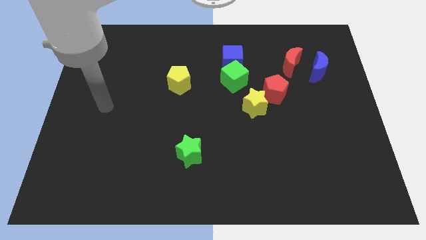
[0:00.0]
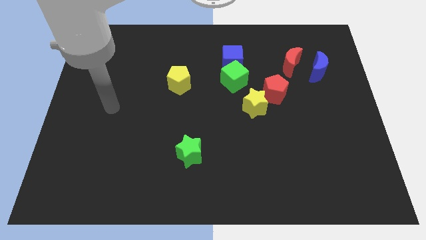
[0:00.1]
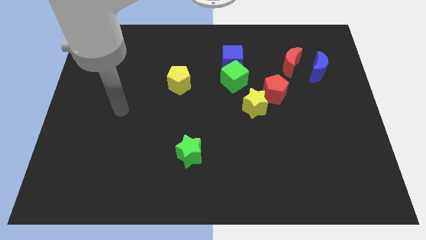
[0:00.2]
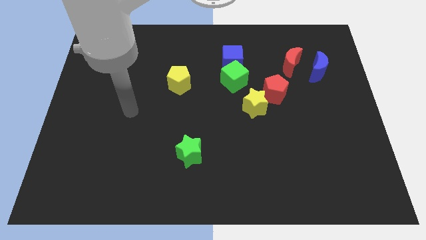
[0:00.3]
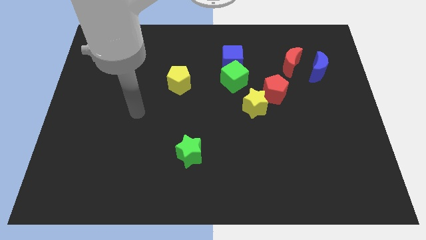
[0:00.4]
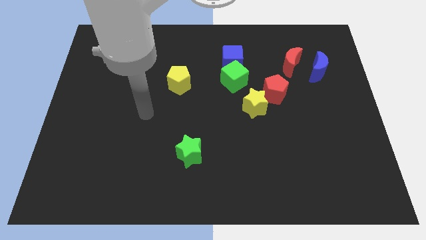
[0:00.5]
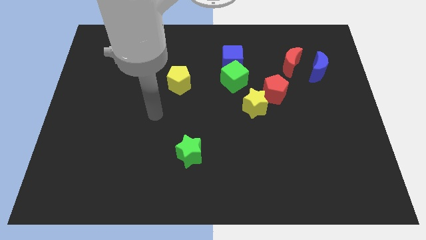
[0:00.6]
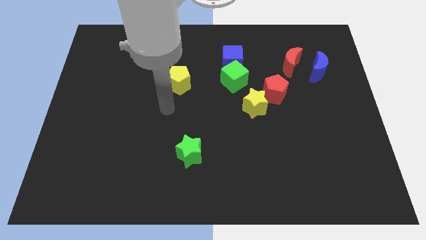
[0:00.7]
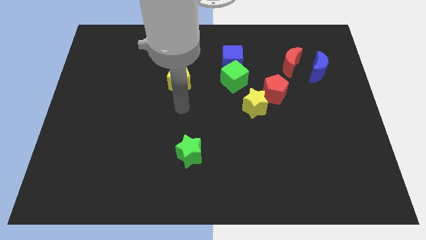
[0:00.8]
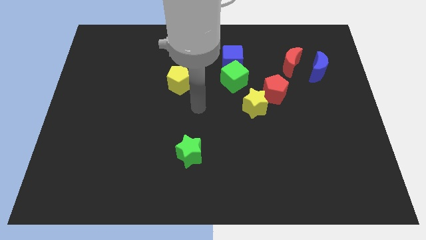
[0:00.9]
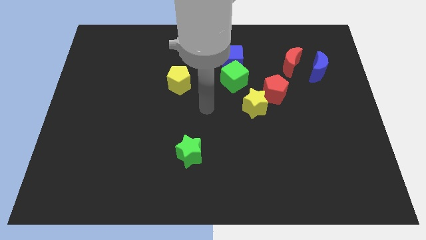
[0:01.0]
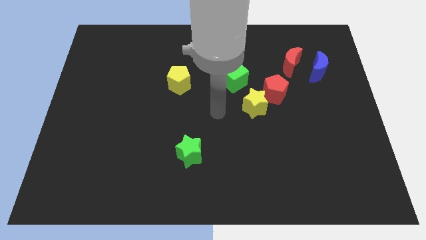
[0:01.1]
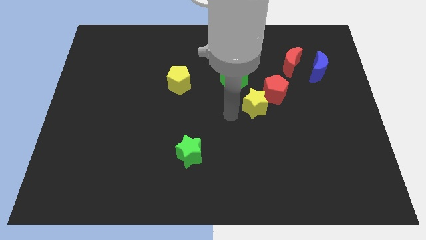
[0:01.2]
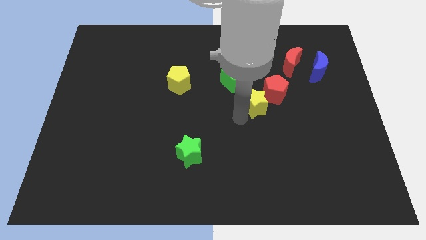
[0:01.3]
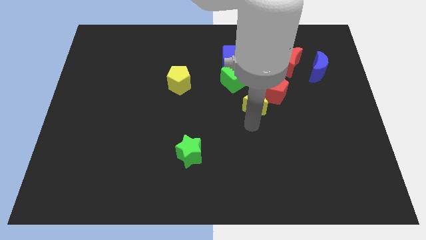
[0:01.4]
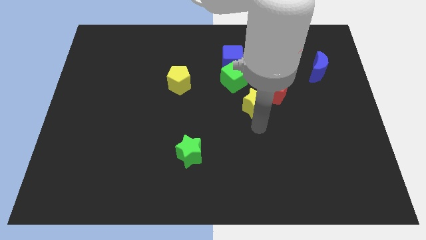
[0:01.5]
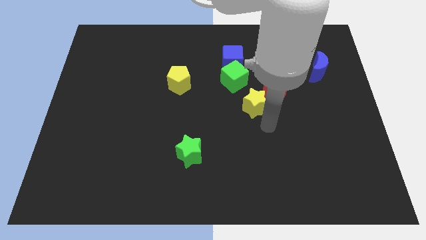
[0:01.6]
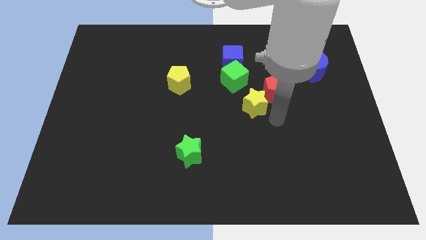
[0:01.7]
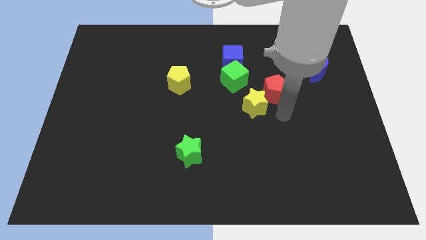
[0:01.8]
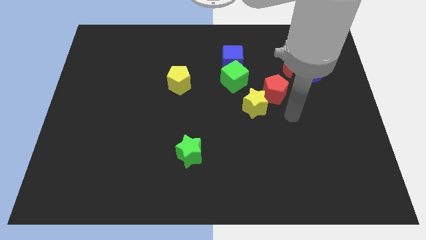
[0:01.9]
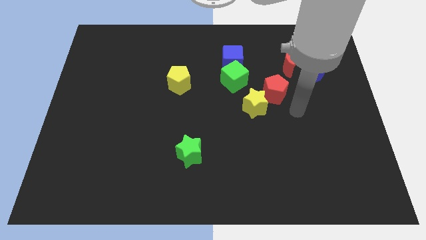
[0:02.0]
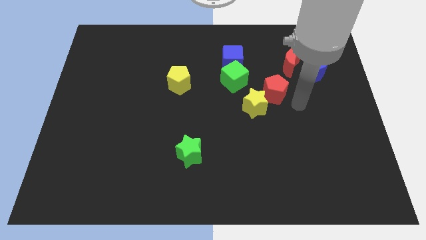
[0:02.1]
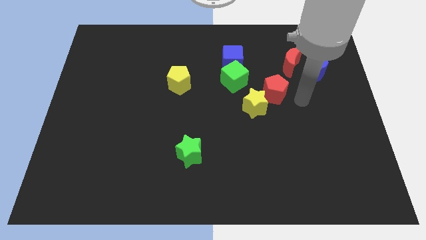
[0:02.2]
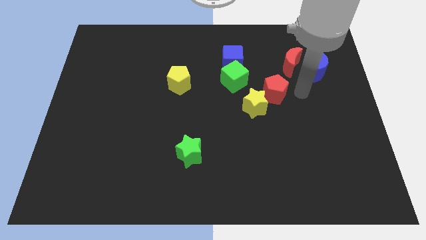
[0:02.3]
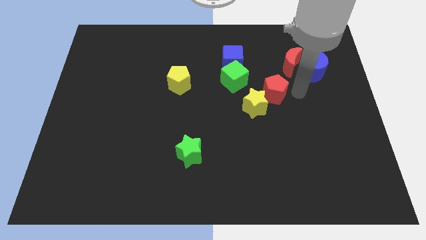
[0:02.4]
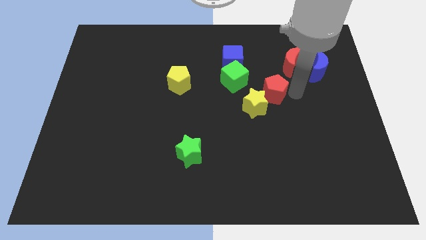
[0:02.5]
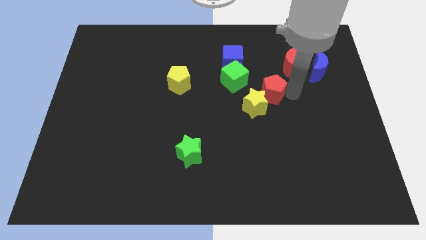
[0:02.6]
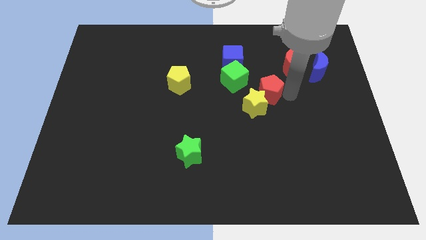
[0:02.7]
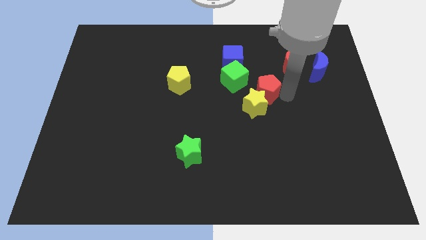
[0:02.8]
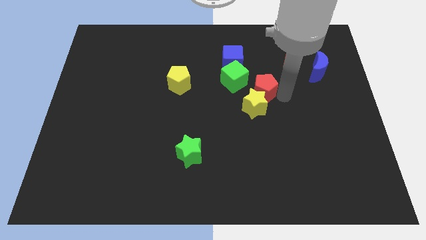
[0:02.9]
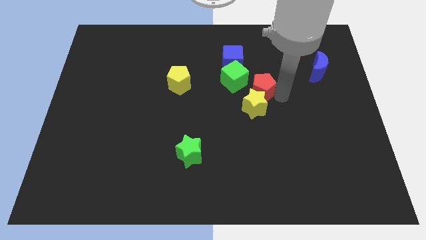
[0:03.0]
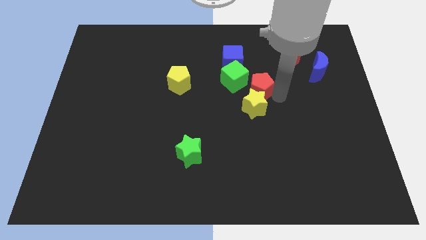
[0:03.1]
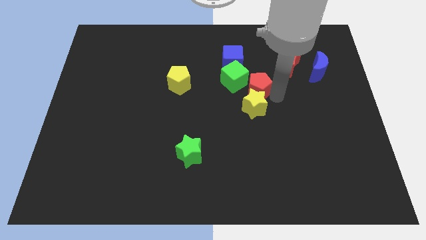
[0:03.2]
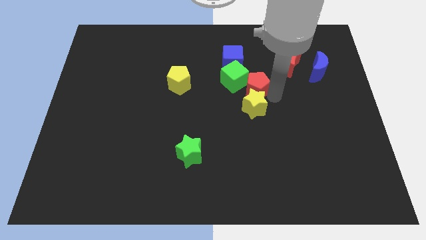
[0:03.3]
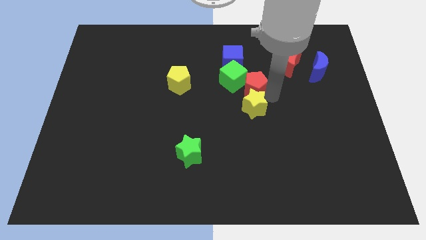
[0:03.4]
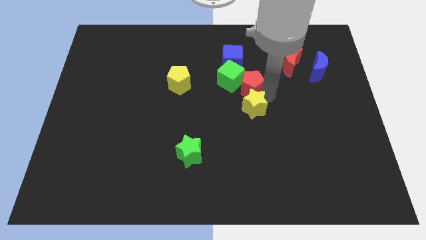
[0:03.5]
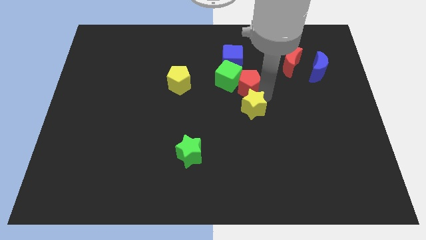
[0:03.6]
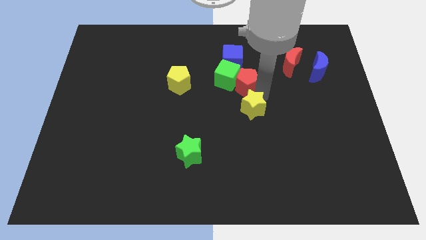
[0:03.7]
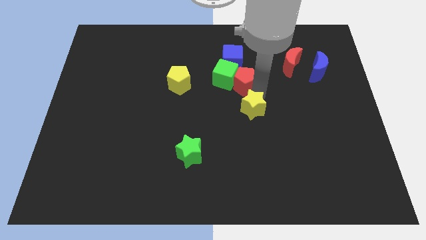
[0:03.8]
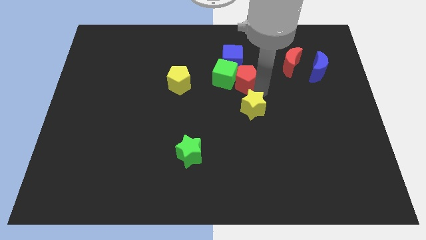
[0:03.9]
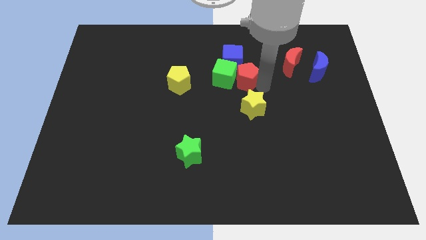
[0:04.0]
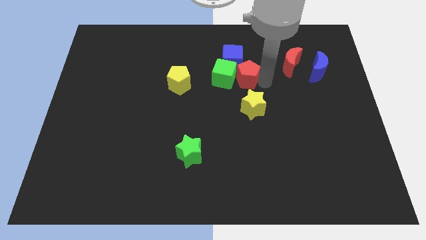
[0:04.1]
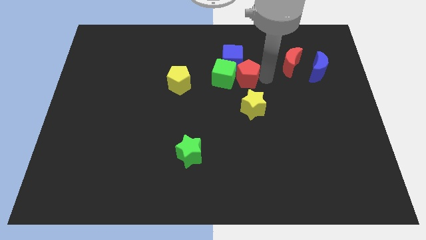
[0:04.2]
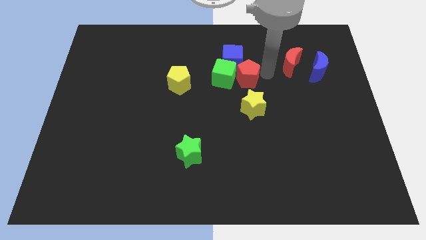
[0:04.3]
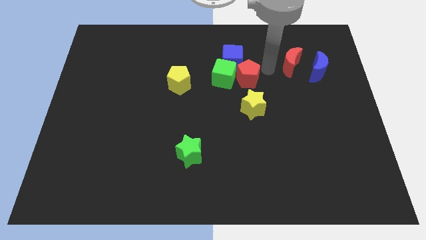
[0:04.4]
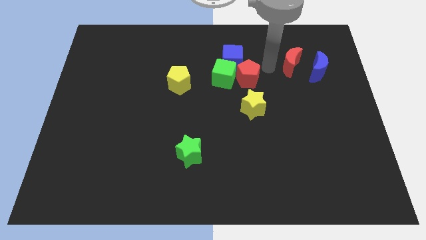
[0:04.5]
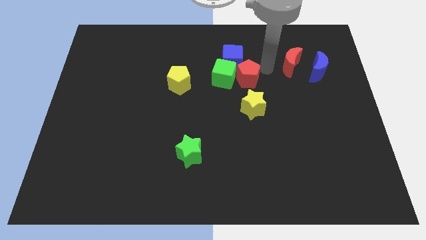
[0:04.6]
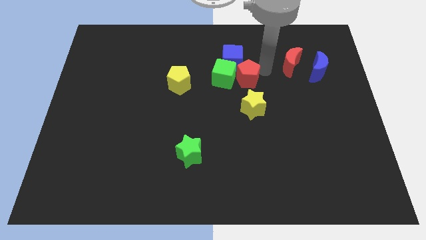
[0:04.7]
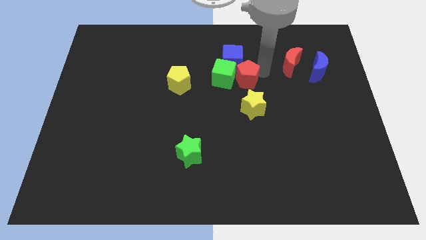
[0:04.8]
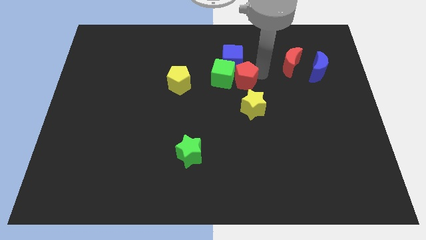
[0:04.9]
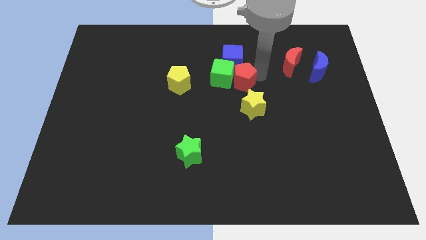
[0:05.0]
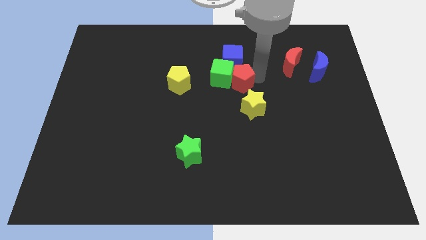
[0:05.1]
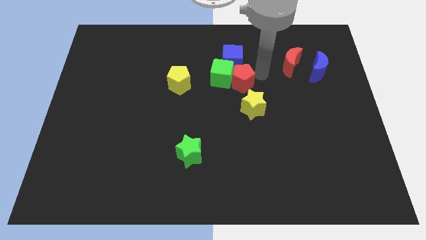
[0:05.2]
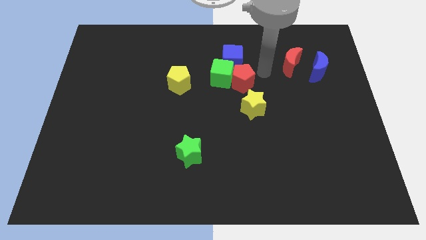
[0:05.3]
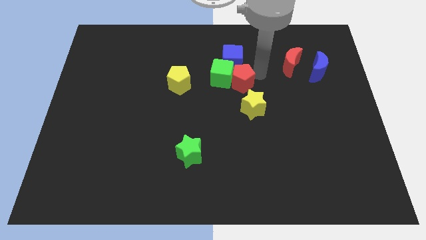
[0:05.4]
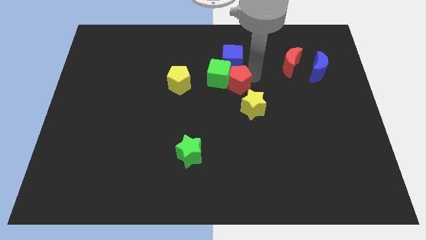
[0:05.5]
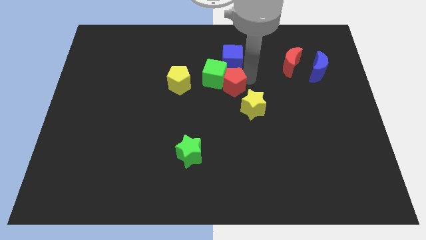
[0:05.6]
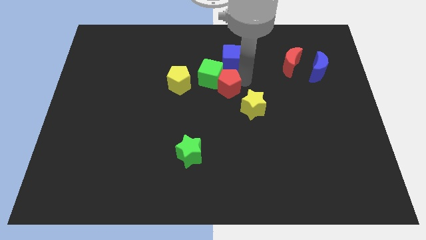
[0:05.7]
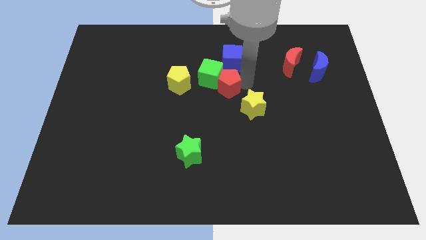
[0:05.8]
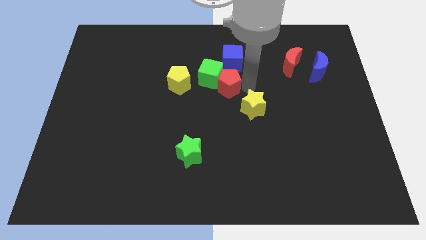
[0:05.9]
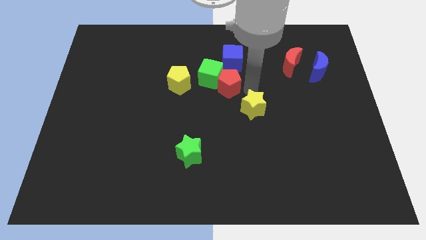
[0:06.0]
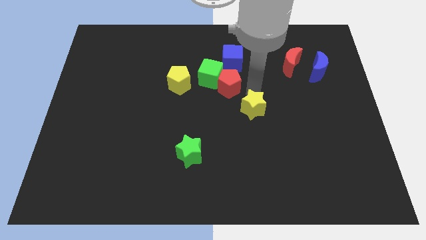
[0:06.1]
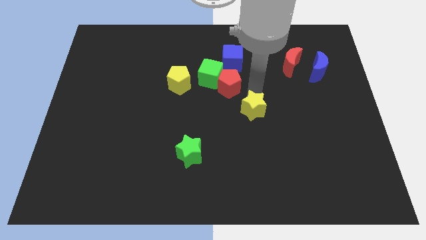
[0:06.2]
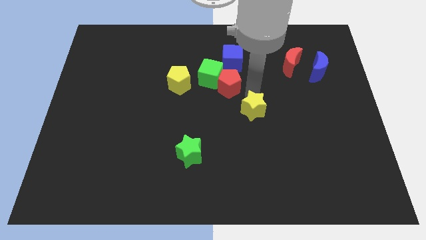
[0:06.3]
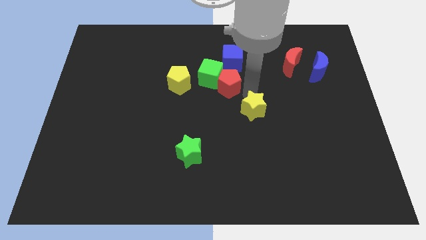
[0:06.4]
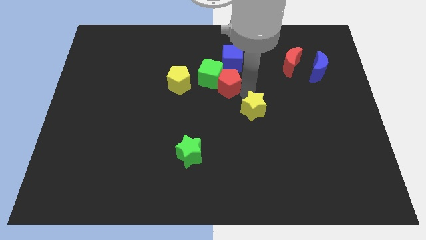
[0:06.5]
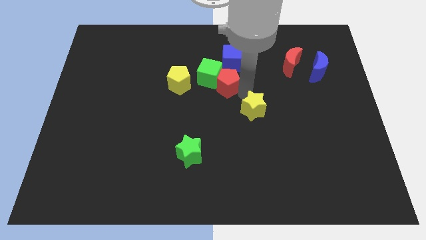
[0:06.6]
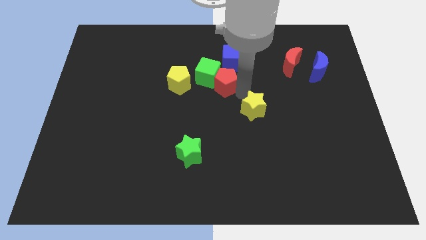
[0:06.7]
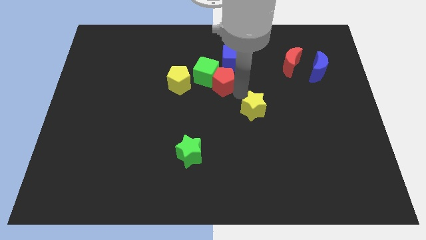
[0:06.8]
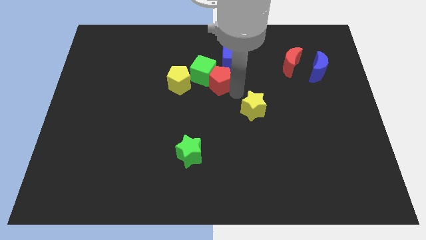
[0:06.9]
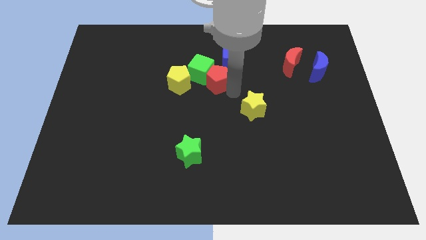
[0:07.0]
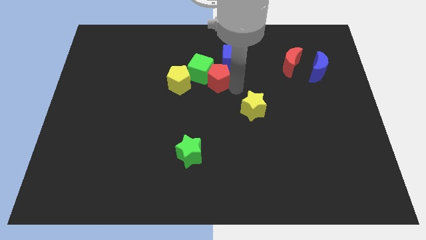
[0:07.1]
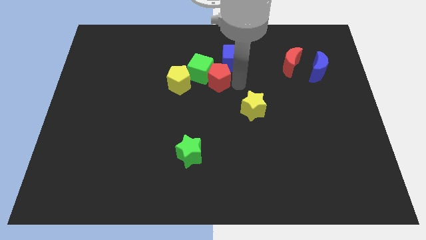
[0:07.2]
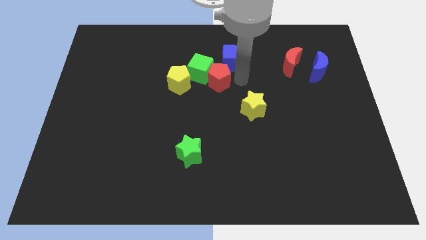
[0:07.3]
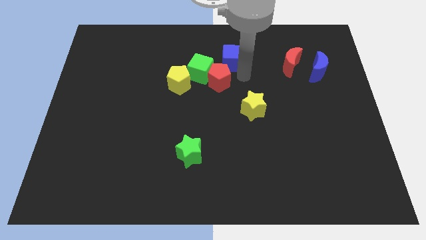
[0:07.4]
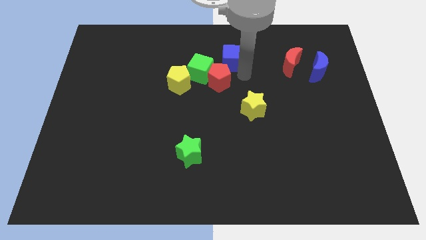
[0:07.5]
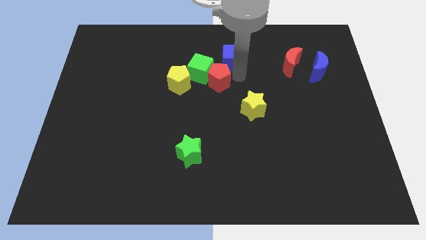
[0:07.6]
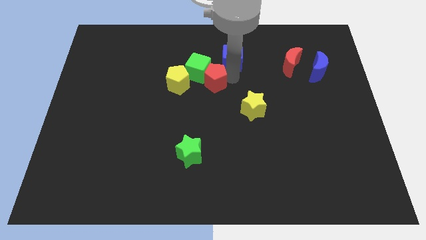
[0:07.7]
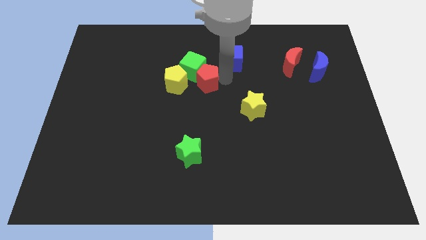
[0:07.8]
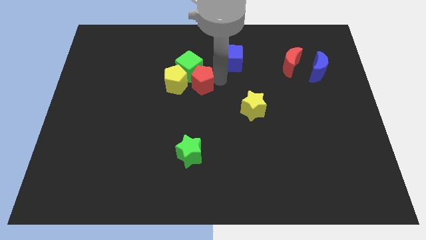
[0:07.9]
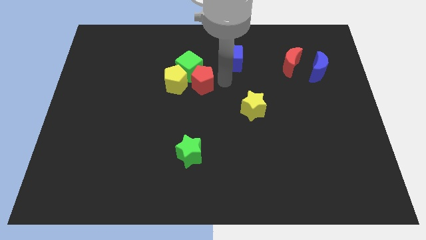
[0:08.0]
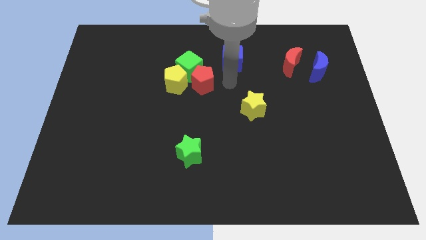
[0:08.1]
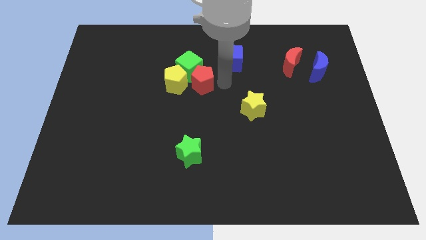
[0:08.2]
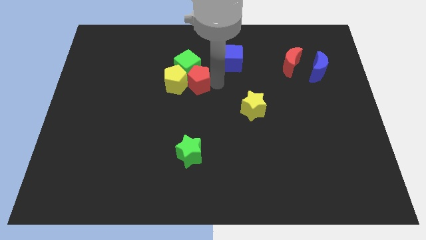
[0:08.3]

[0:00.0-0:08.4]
put the red pentagon next to the yellow pentagon
